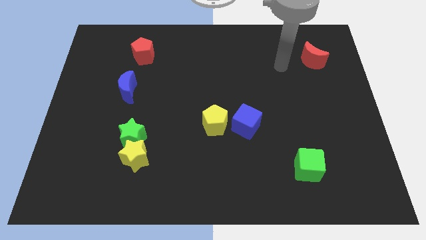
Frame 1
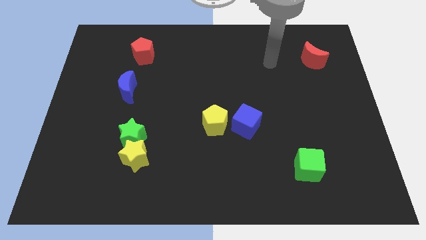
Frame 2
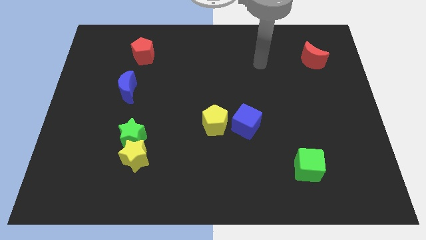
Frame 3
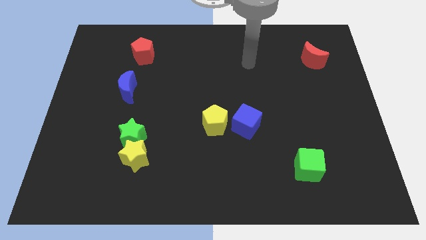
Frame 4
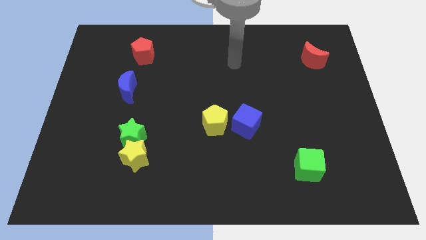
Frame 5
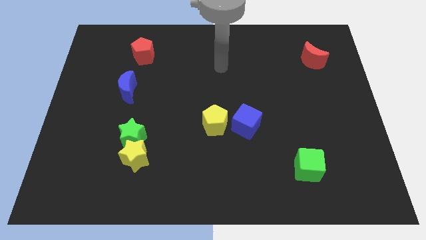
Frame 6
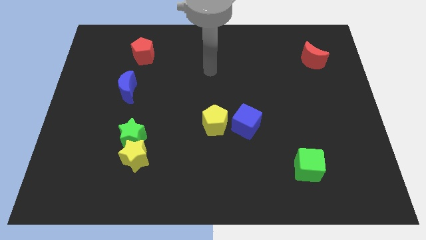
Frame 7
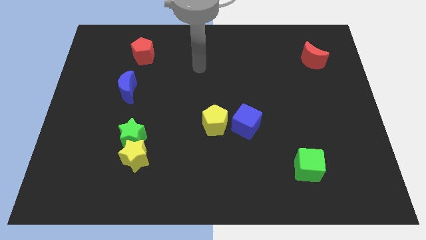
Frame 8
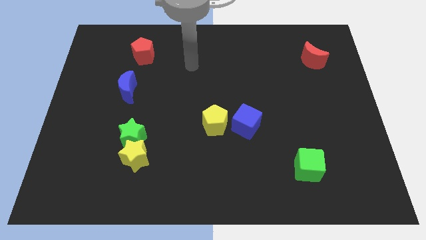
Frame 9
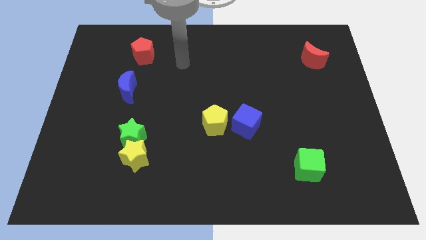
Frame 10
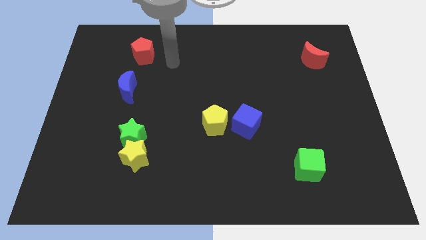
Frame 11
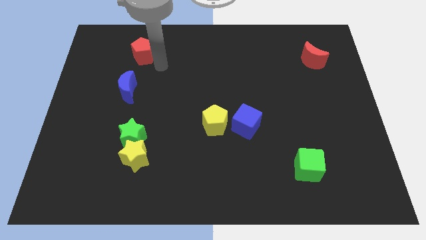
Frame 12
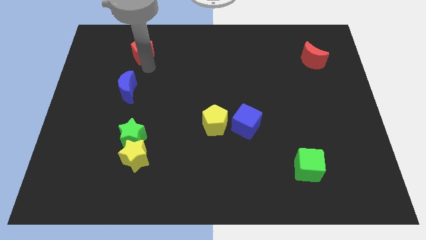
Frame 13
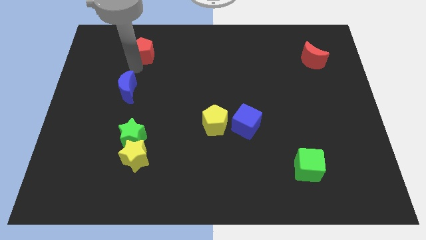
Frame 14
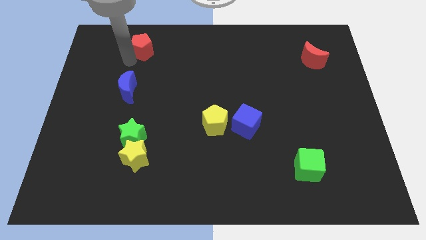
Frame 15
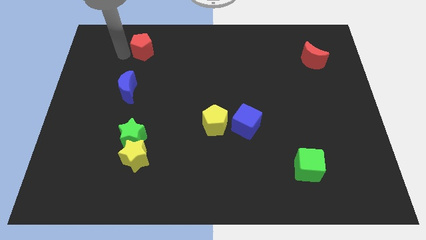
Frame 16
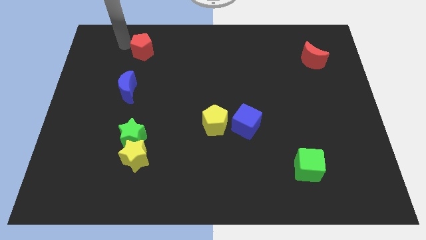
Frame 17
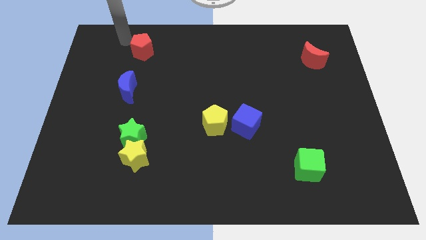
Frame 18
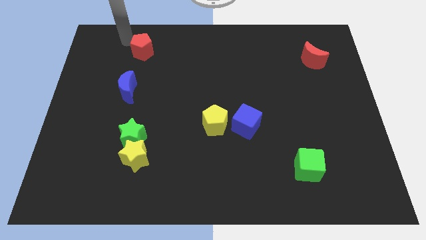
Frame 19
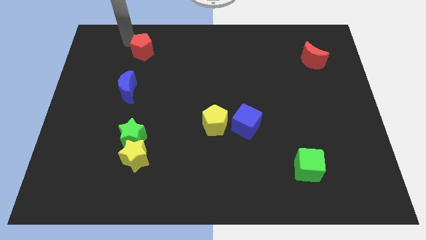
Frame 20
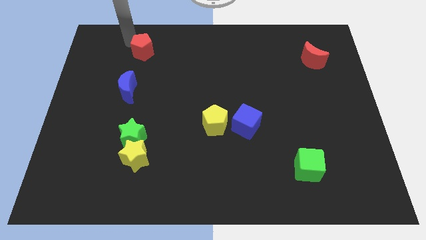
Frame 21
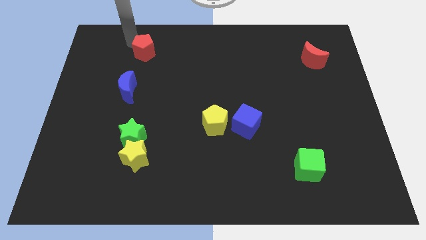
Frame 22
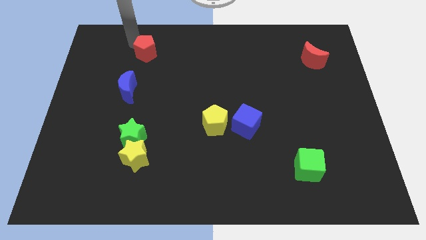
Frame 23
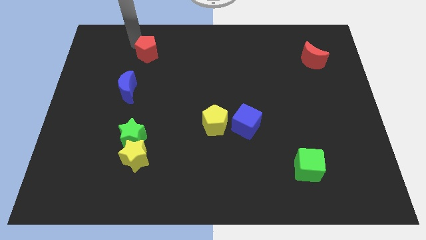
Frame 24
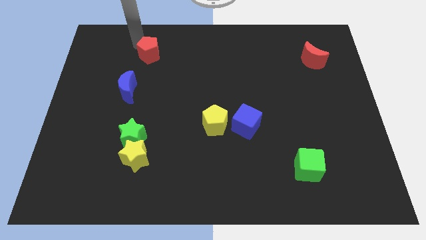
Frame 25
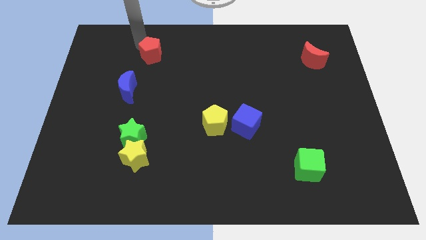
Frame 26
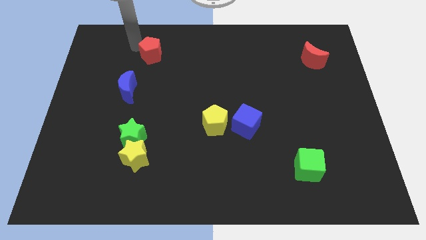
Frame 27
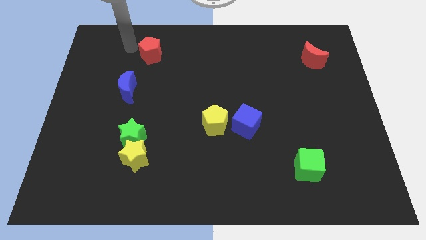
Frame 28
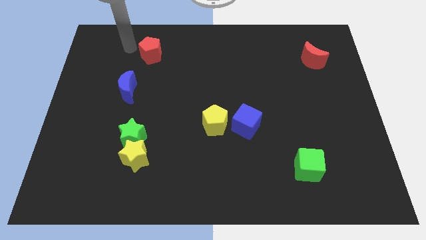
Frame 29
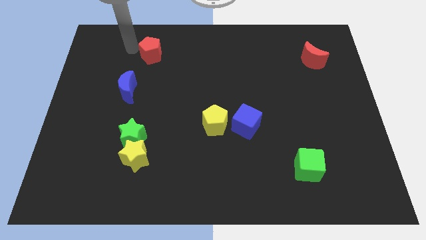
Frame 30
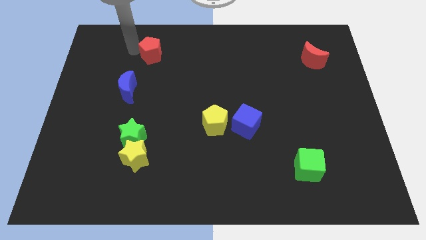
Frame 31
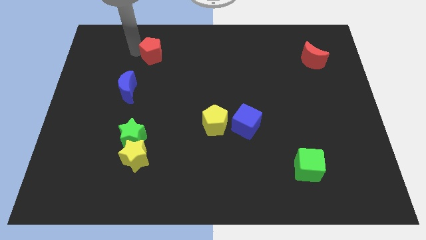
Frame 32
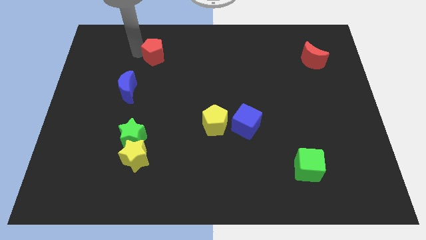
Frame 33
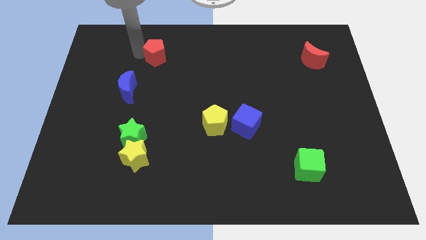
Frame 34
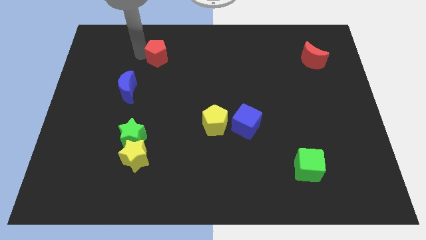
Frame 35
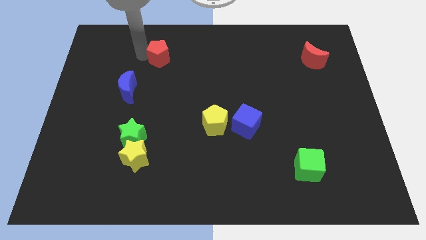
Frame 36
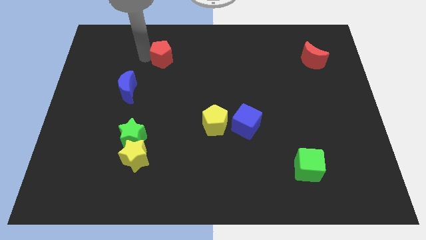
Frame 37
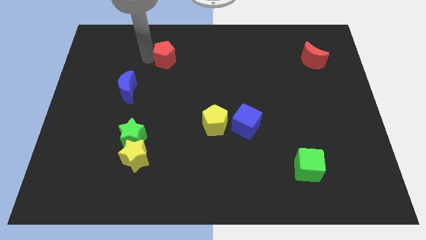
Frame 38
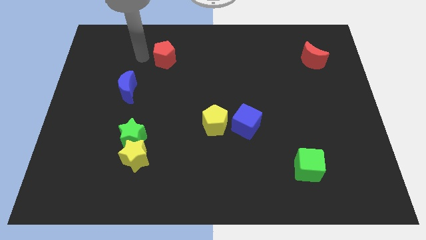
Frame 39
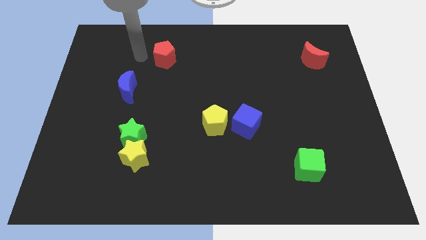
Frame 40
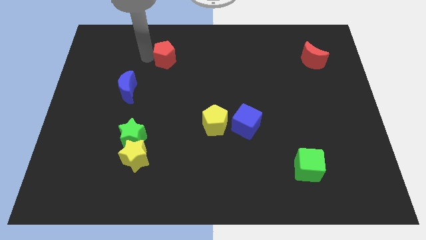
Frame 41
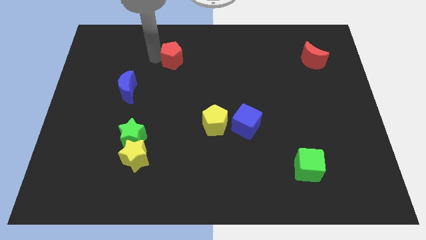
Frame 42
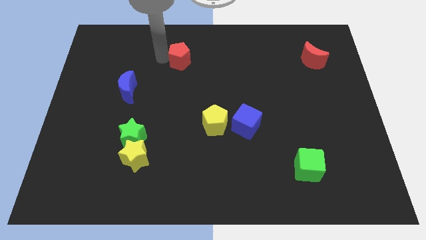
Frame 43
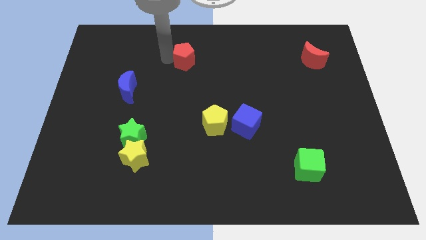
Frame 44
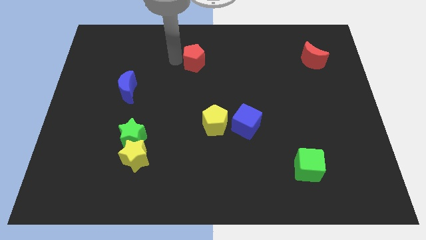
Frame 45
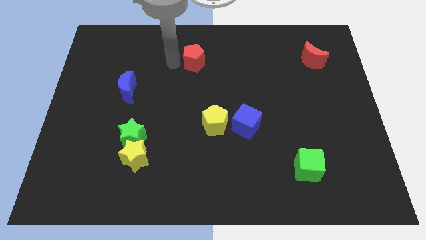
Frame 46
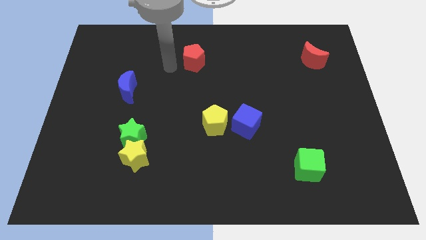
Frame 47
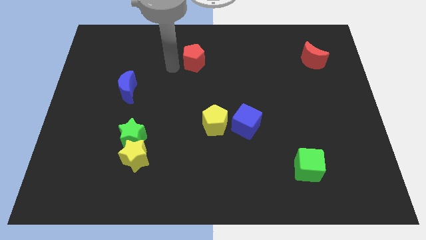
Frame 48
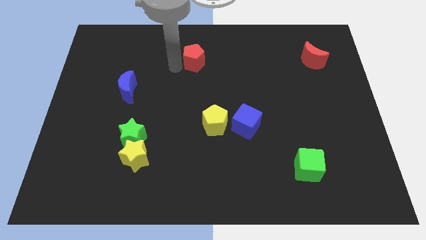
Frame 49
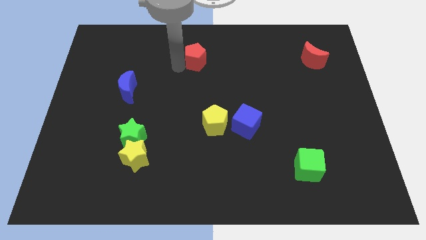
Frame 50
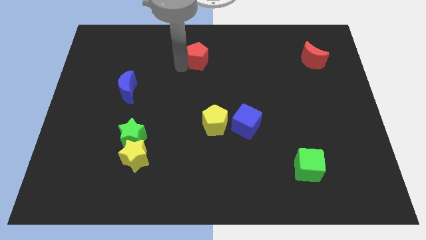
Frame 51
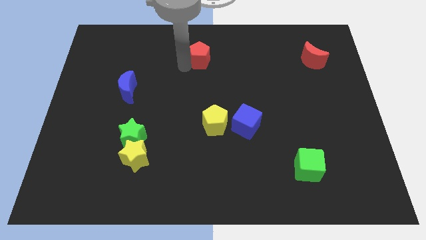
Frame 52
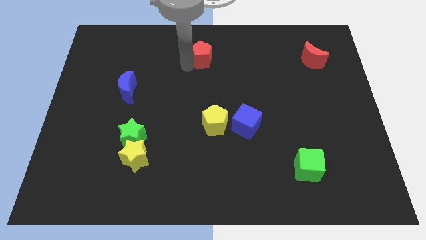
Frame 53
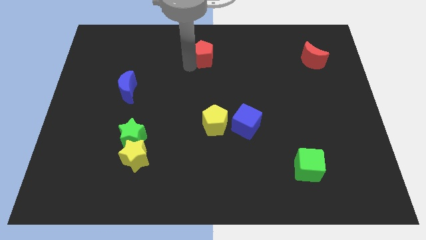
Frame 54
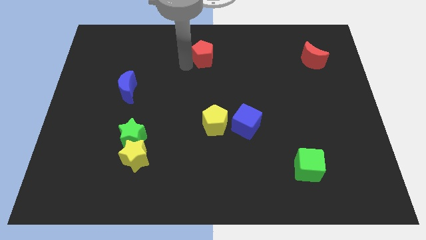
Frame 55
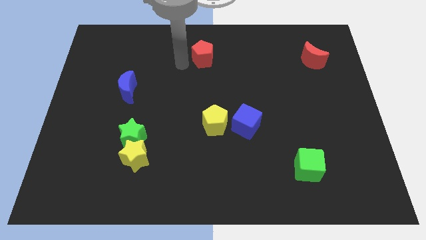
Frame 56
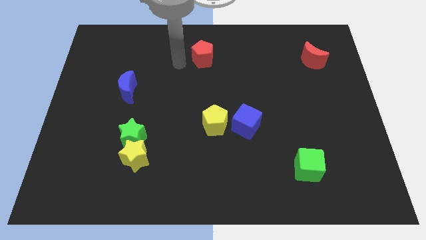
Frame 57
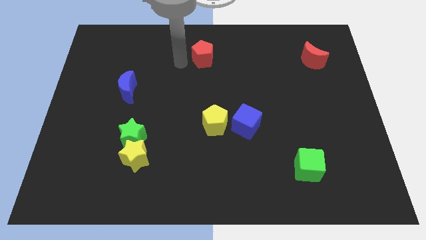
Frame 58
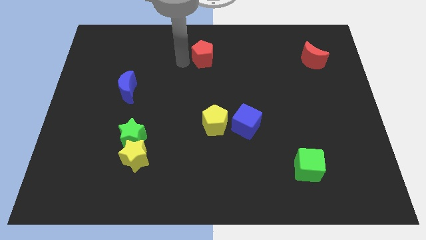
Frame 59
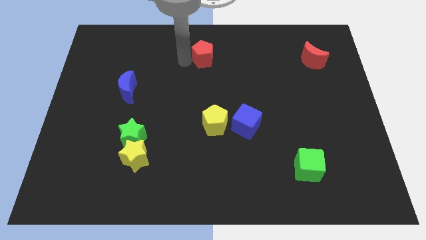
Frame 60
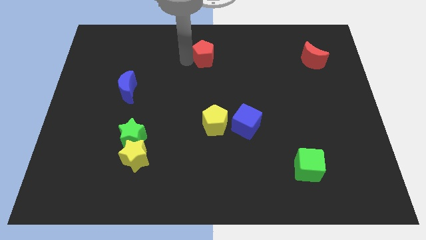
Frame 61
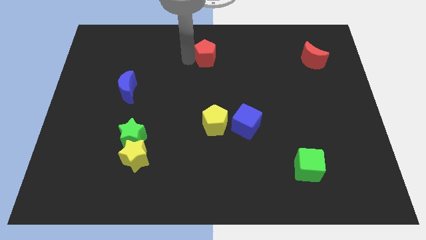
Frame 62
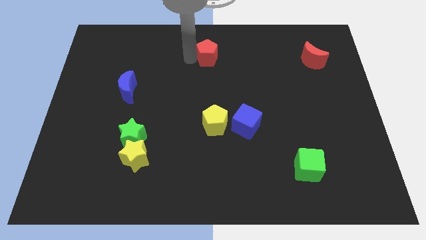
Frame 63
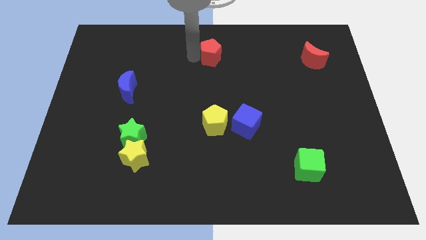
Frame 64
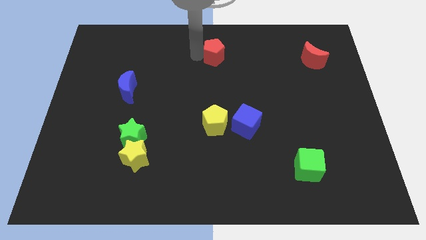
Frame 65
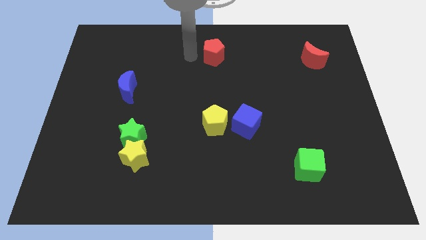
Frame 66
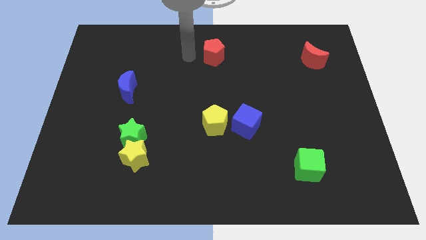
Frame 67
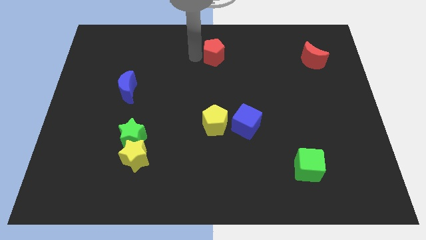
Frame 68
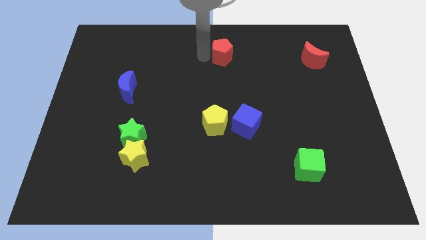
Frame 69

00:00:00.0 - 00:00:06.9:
slide the red pentagon right

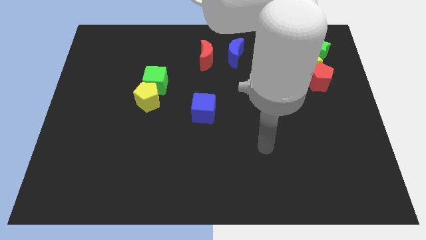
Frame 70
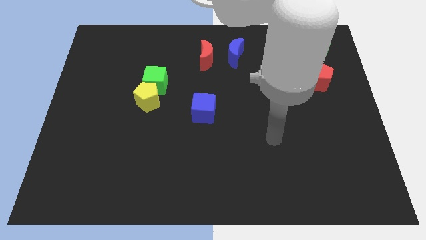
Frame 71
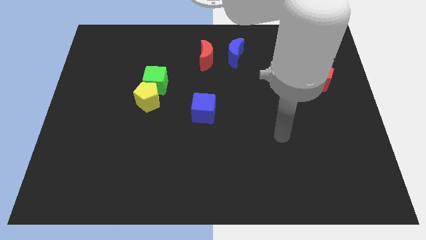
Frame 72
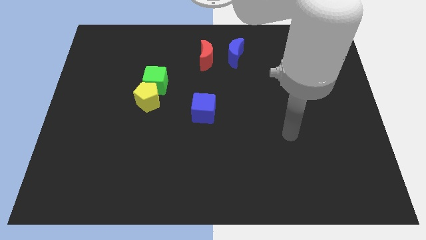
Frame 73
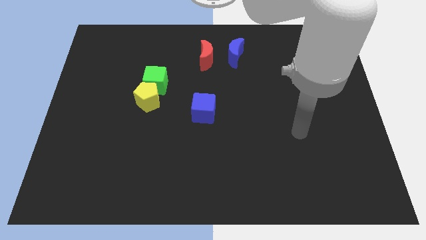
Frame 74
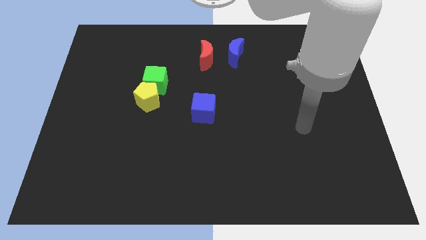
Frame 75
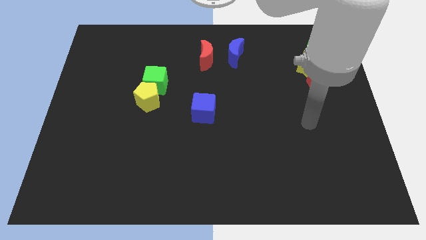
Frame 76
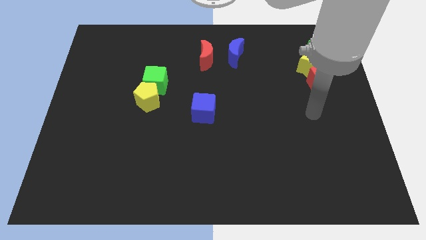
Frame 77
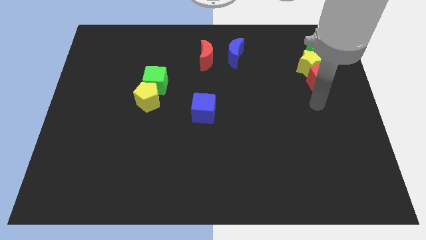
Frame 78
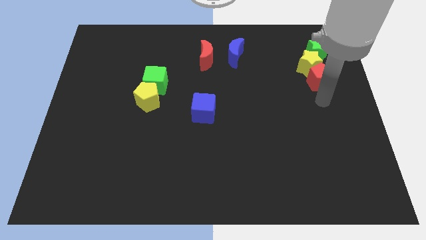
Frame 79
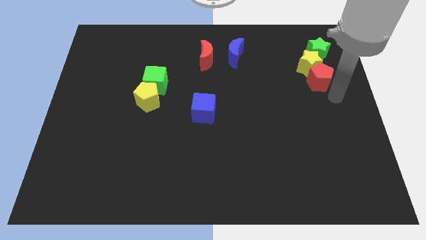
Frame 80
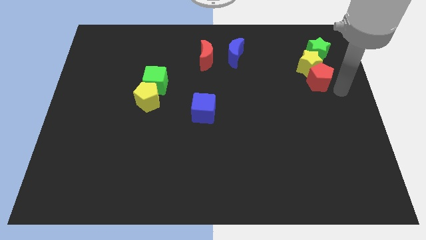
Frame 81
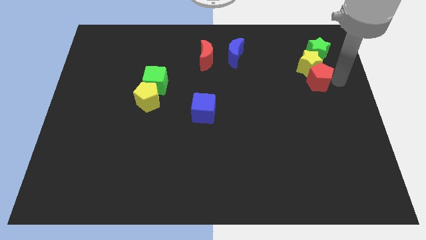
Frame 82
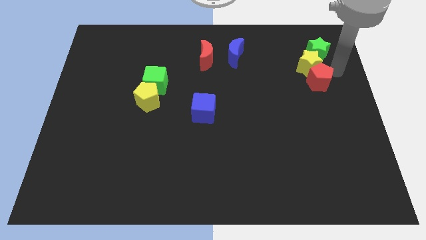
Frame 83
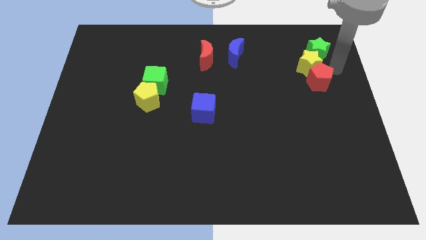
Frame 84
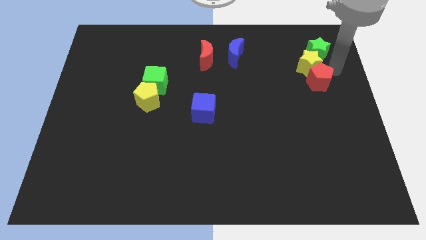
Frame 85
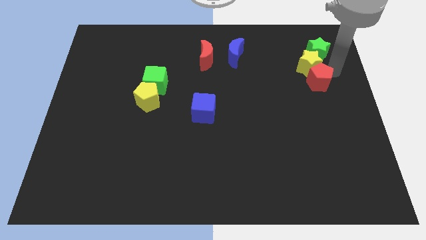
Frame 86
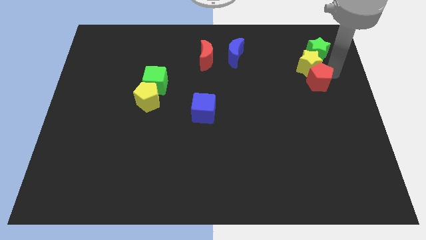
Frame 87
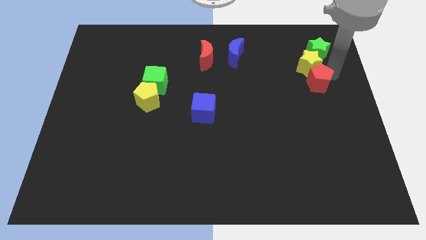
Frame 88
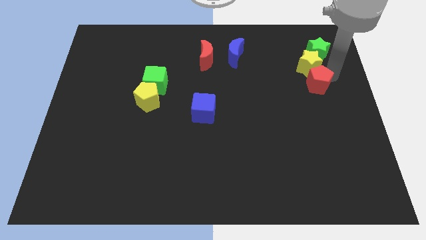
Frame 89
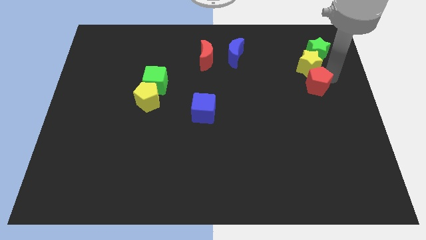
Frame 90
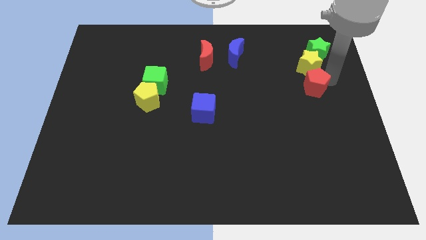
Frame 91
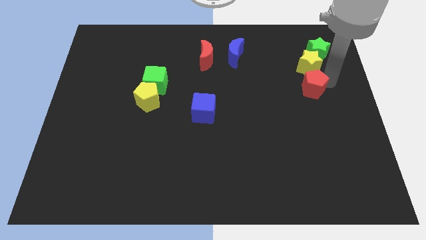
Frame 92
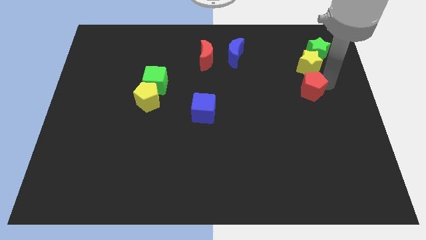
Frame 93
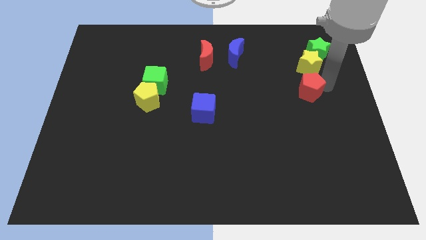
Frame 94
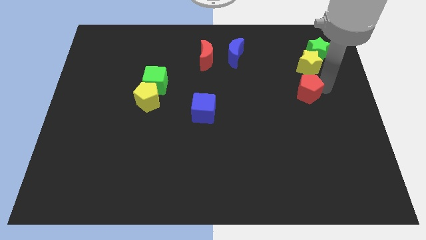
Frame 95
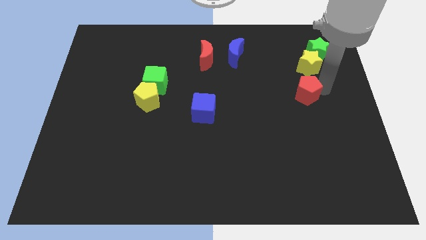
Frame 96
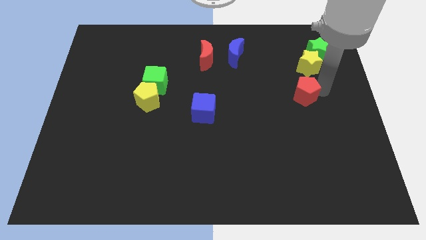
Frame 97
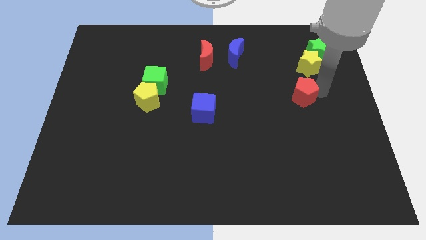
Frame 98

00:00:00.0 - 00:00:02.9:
slightly move the red pentagon down and to the left diagonally
